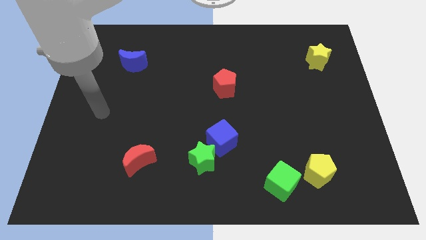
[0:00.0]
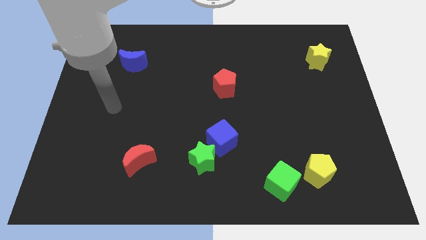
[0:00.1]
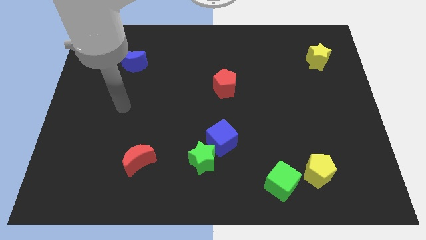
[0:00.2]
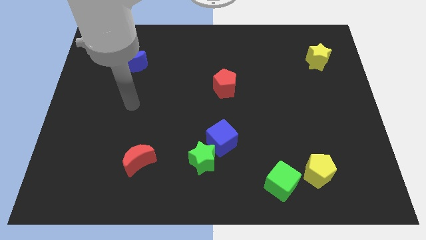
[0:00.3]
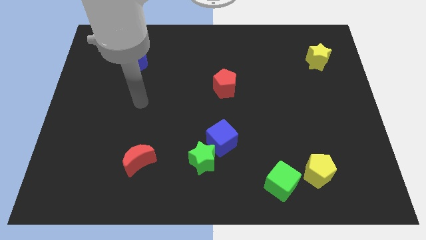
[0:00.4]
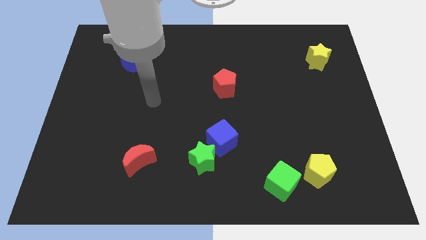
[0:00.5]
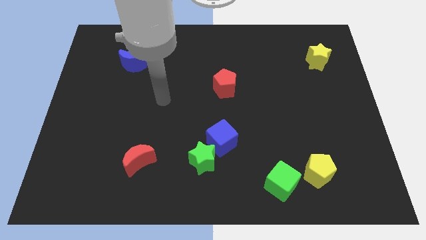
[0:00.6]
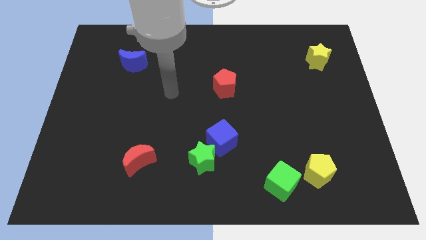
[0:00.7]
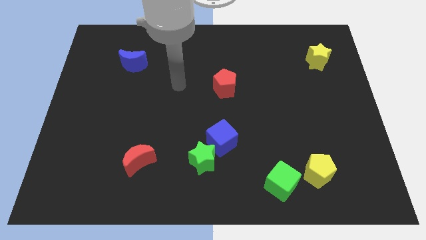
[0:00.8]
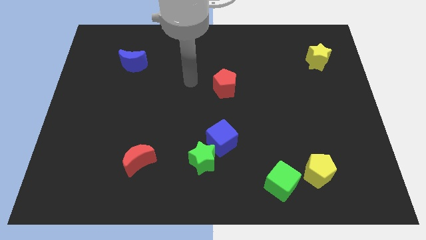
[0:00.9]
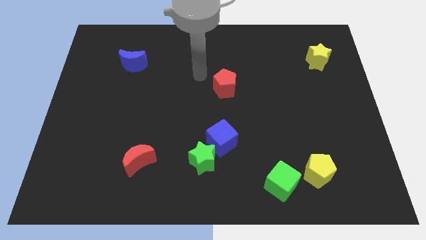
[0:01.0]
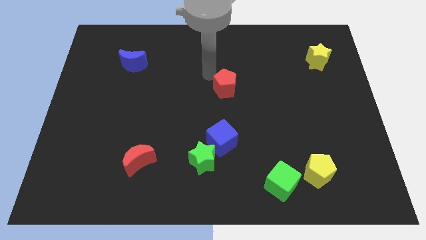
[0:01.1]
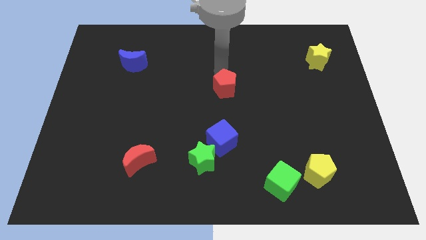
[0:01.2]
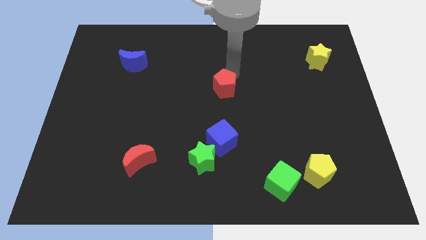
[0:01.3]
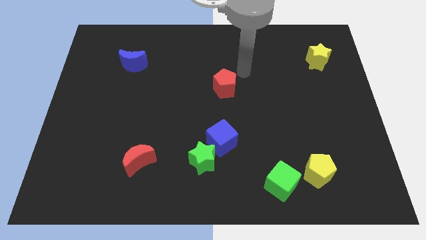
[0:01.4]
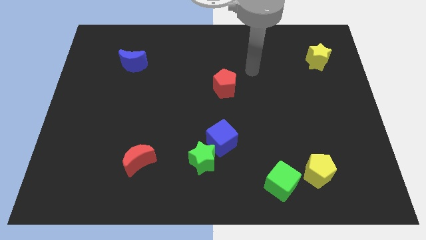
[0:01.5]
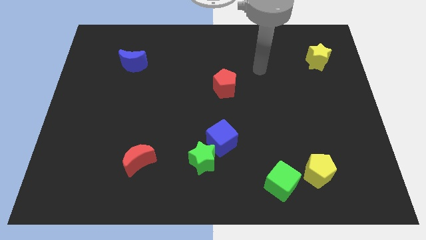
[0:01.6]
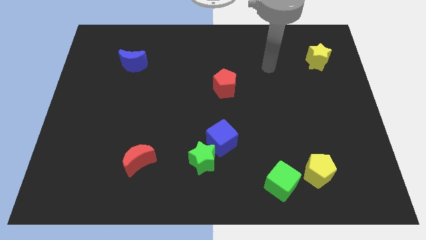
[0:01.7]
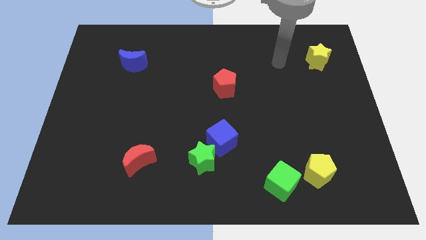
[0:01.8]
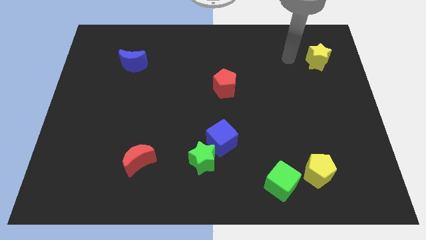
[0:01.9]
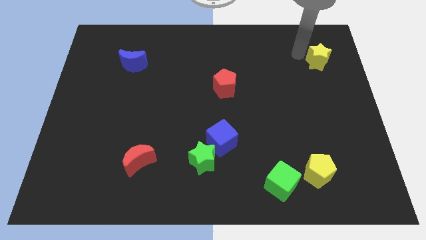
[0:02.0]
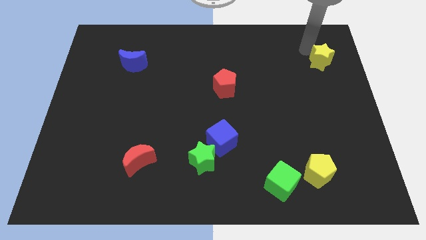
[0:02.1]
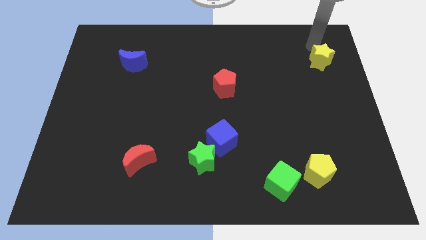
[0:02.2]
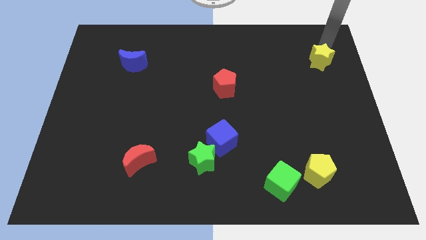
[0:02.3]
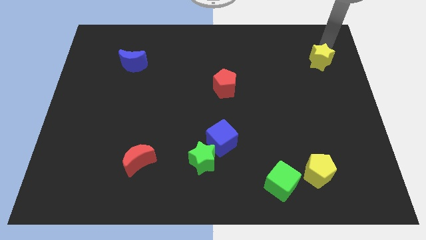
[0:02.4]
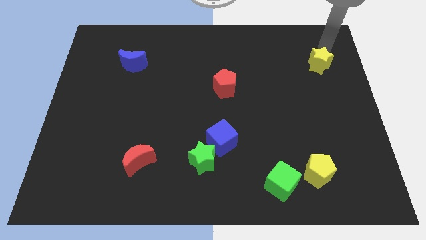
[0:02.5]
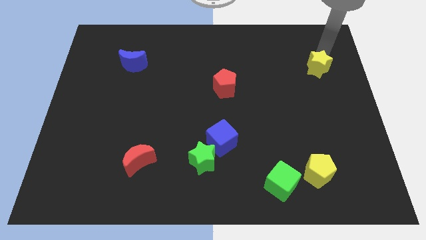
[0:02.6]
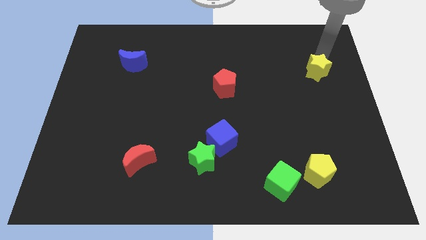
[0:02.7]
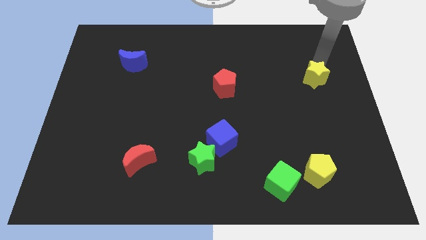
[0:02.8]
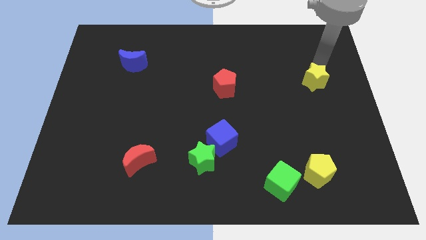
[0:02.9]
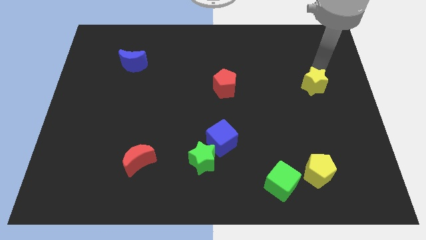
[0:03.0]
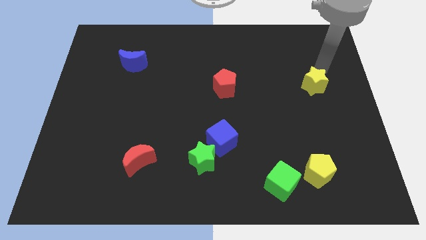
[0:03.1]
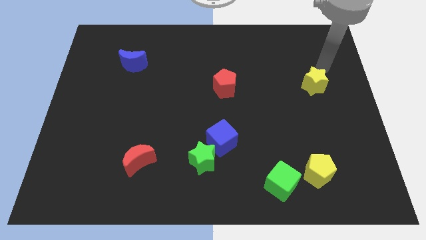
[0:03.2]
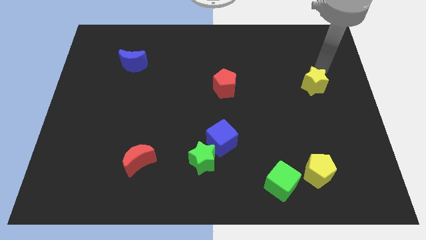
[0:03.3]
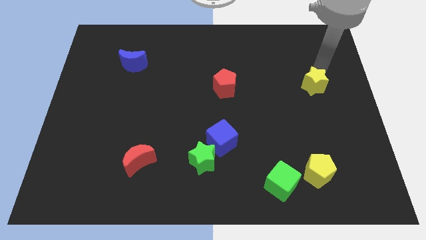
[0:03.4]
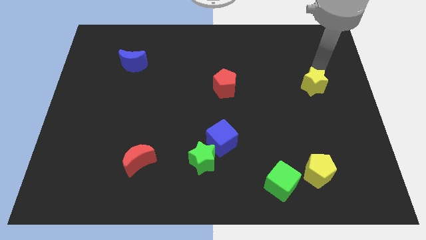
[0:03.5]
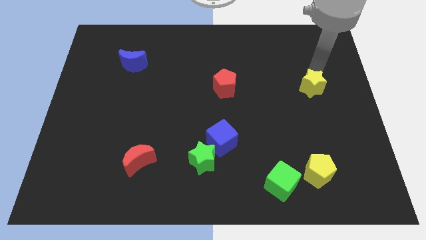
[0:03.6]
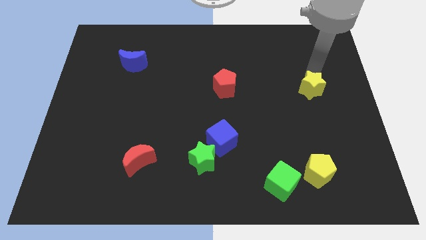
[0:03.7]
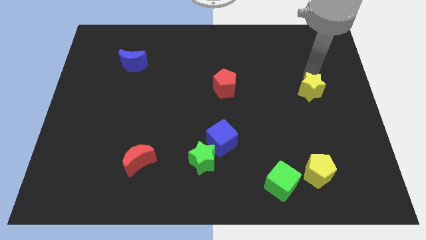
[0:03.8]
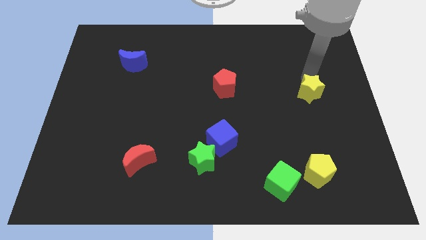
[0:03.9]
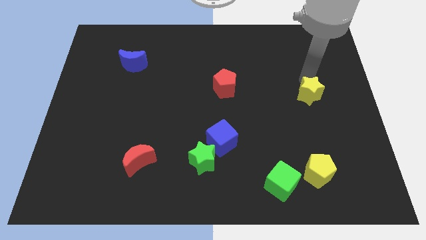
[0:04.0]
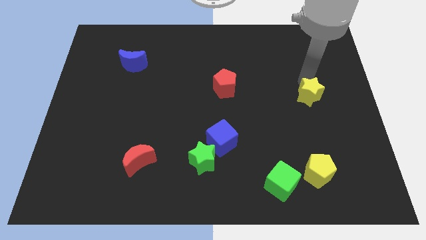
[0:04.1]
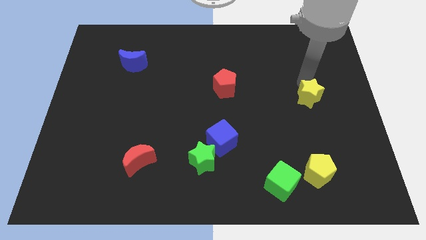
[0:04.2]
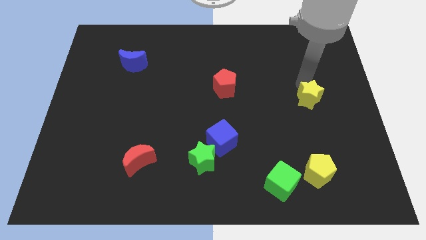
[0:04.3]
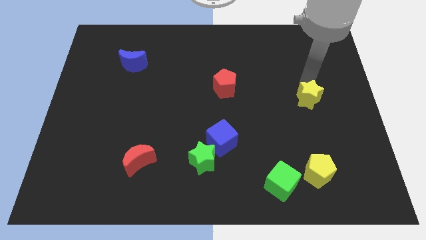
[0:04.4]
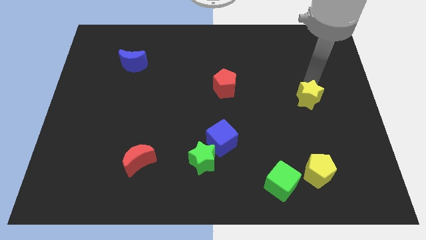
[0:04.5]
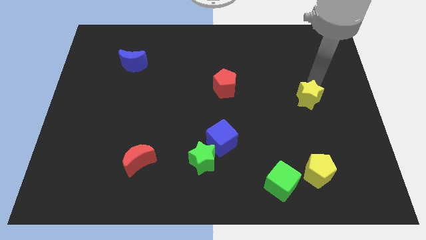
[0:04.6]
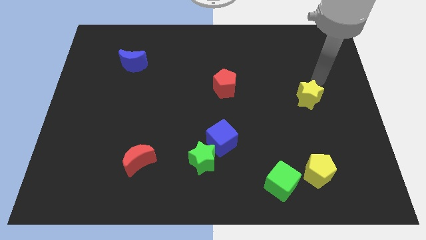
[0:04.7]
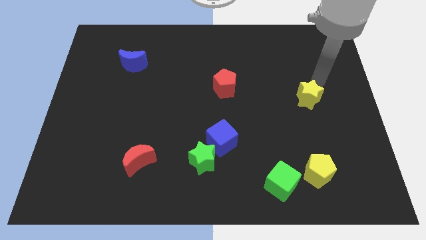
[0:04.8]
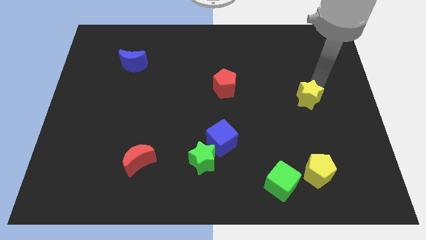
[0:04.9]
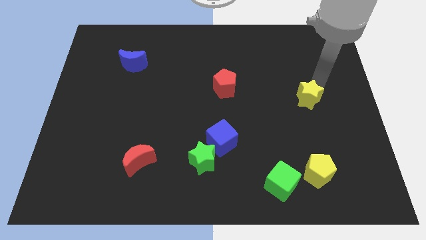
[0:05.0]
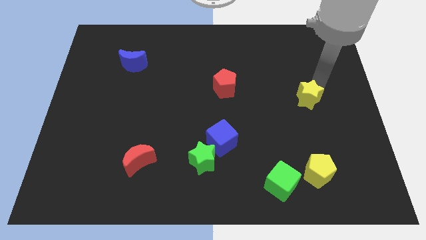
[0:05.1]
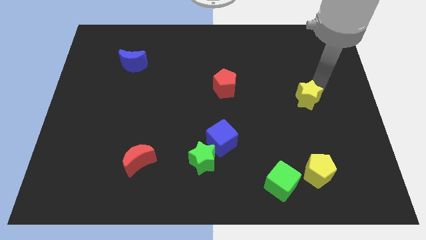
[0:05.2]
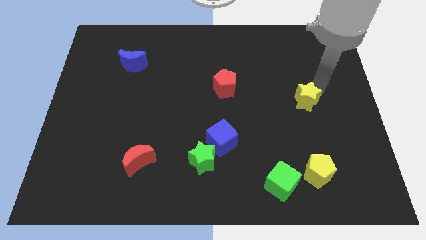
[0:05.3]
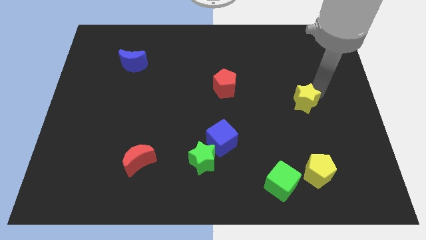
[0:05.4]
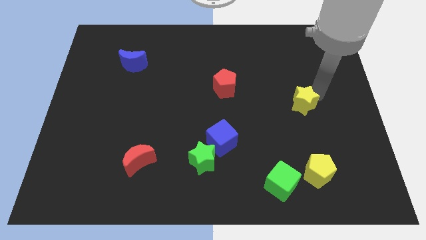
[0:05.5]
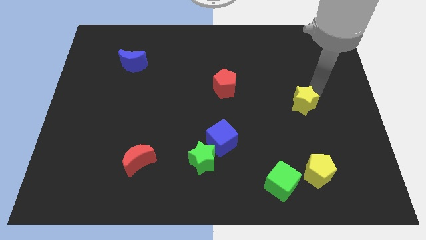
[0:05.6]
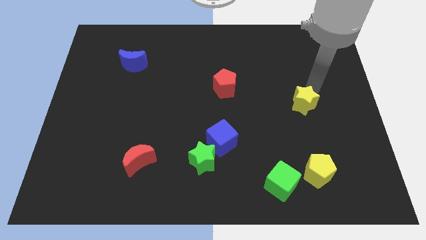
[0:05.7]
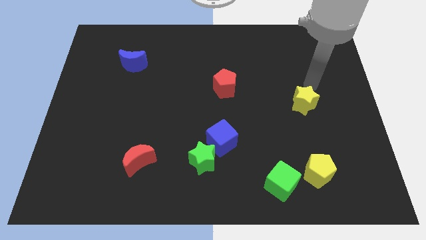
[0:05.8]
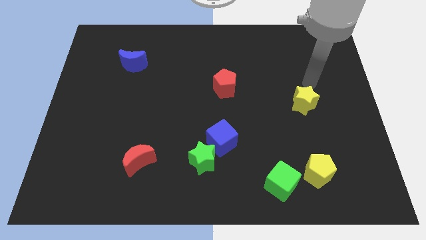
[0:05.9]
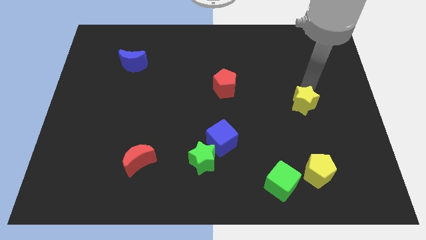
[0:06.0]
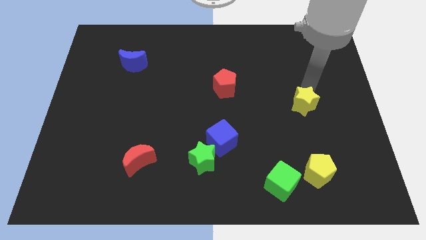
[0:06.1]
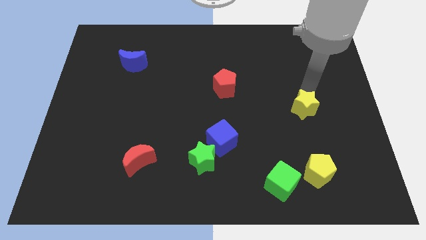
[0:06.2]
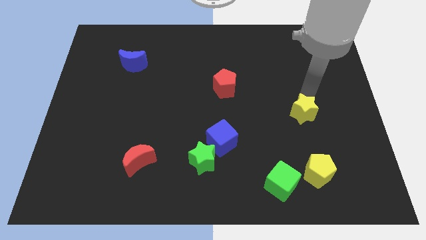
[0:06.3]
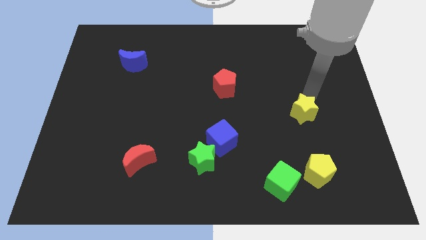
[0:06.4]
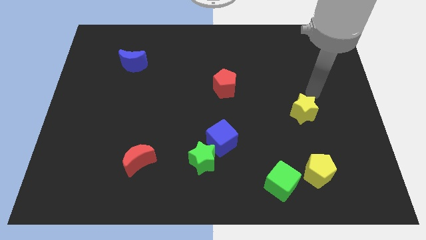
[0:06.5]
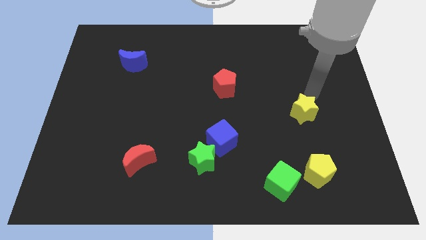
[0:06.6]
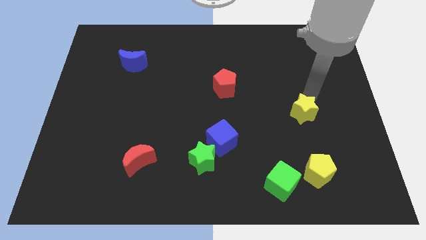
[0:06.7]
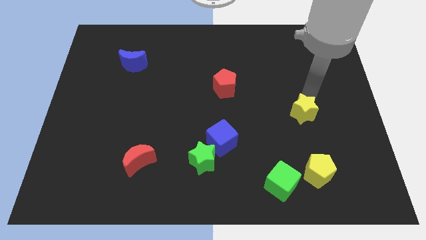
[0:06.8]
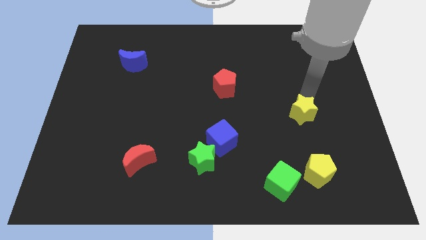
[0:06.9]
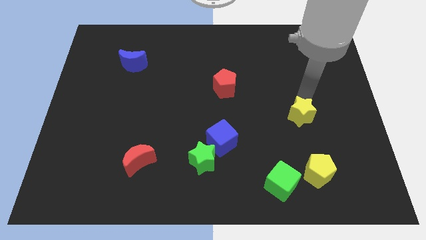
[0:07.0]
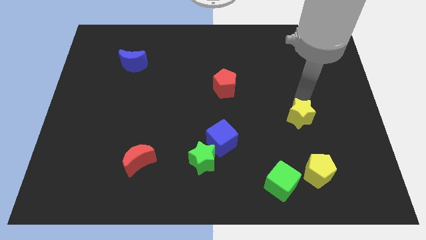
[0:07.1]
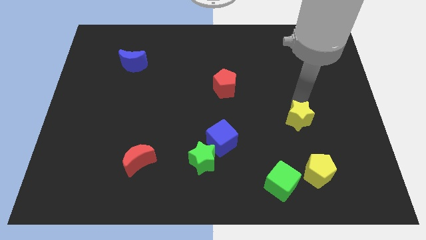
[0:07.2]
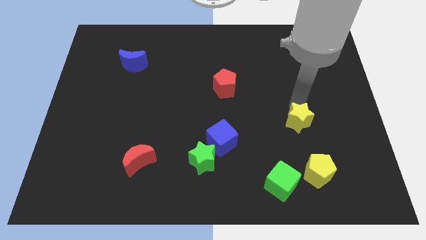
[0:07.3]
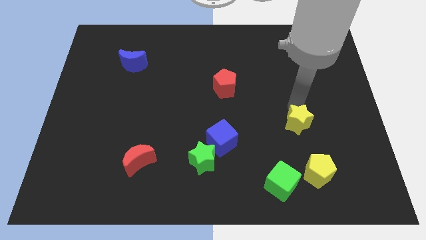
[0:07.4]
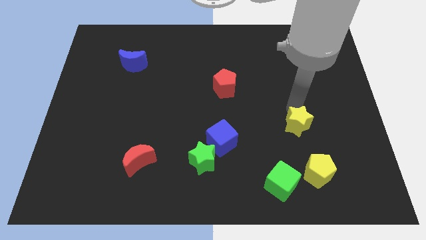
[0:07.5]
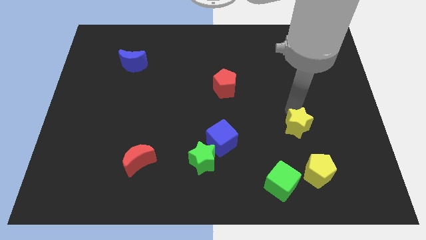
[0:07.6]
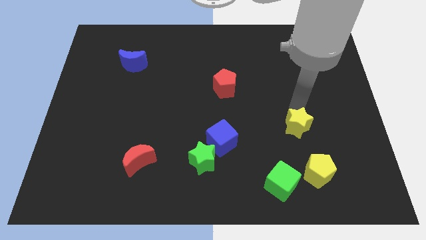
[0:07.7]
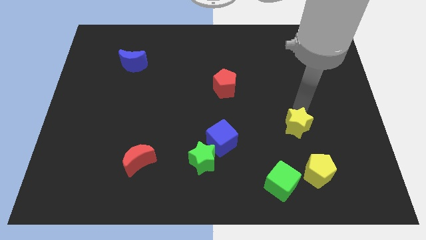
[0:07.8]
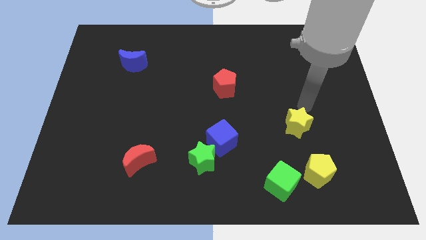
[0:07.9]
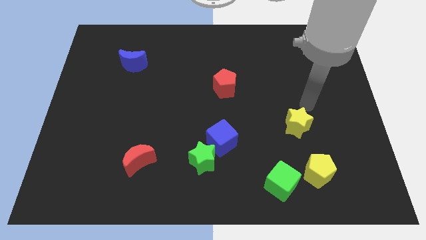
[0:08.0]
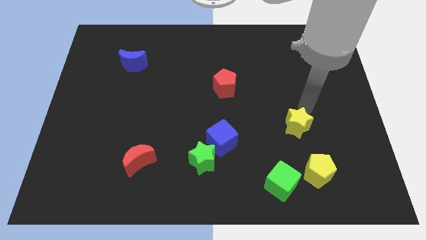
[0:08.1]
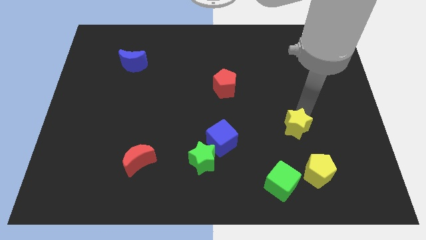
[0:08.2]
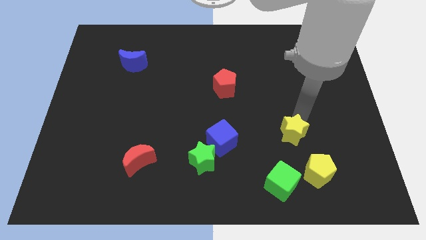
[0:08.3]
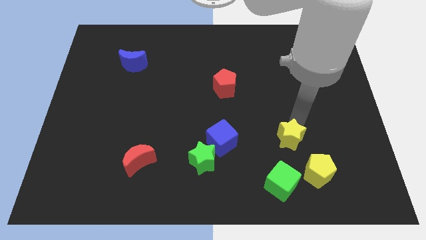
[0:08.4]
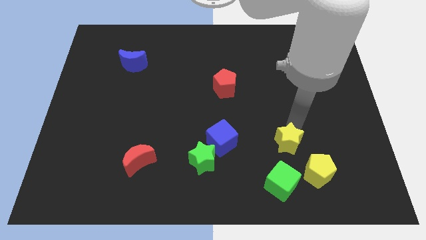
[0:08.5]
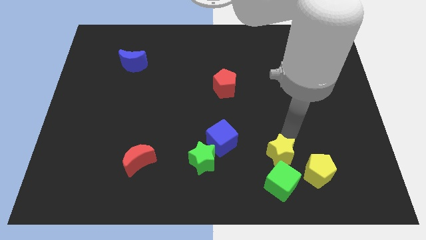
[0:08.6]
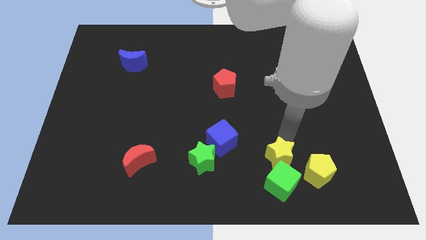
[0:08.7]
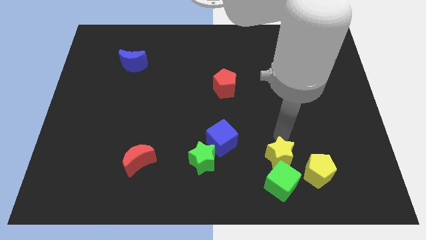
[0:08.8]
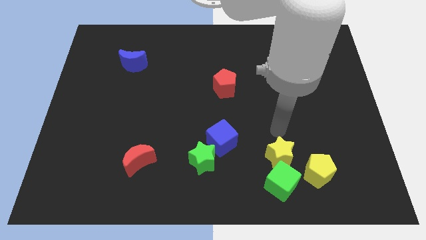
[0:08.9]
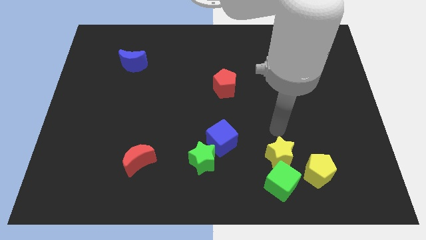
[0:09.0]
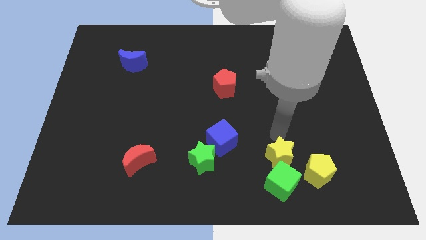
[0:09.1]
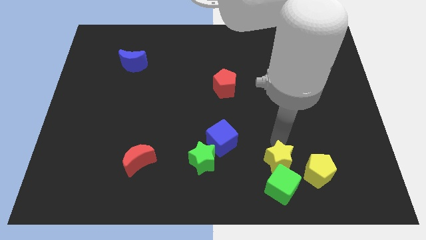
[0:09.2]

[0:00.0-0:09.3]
move the yellow star to the green cube
